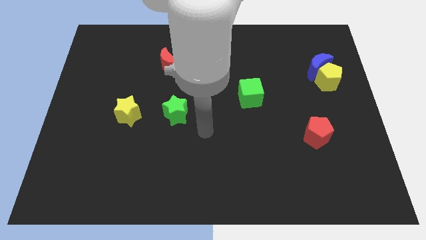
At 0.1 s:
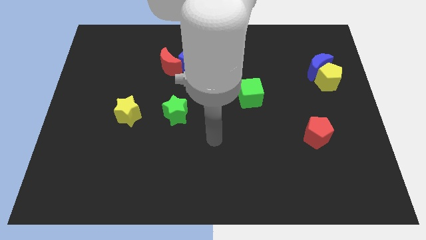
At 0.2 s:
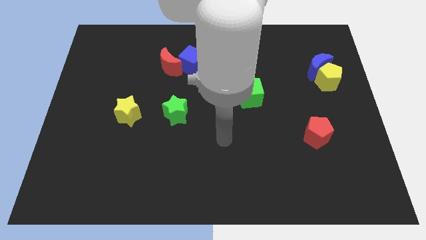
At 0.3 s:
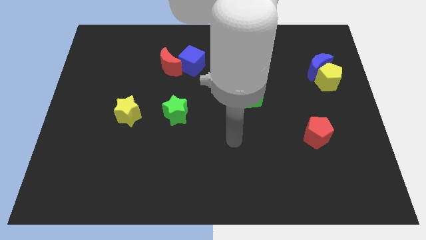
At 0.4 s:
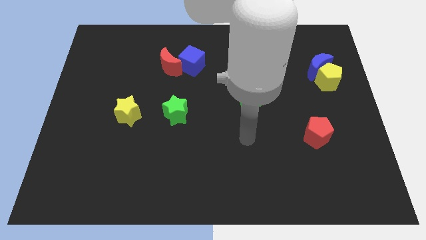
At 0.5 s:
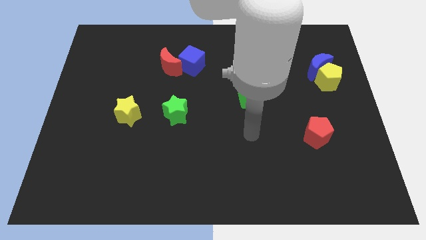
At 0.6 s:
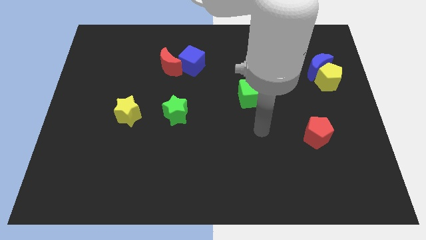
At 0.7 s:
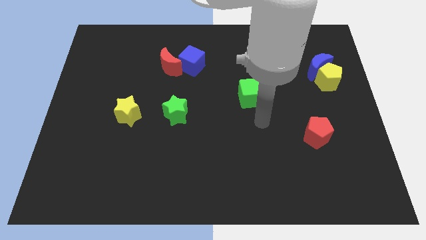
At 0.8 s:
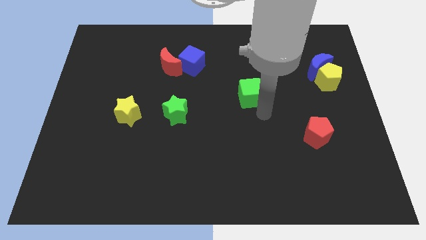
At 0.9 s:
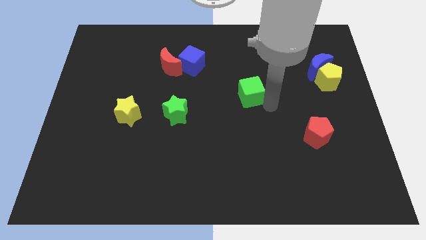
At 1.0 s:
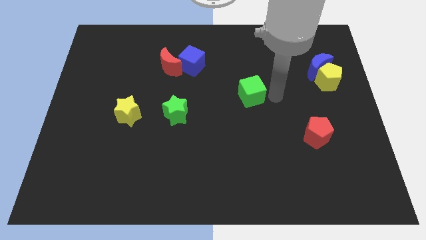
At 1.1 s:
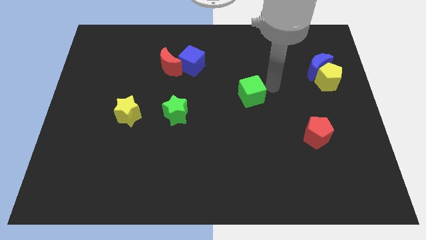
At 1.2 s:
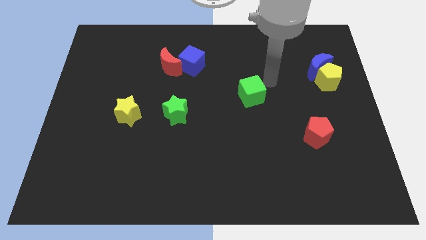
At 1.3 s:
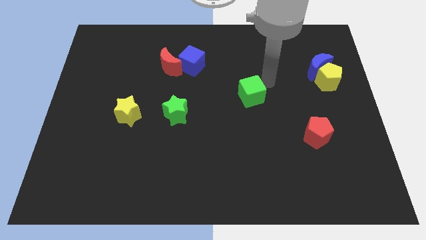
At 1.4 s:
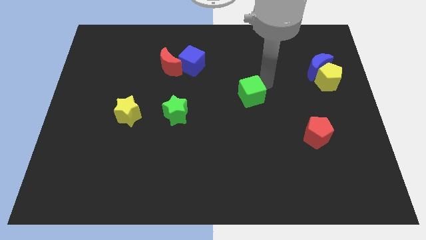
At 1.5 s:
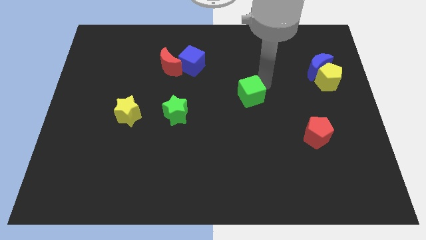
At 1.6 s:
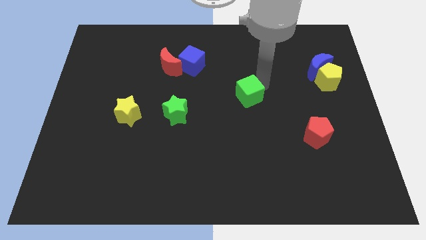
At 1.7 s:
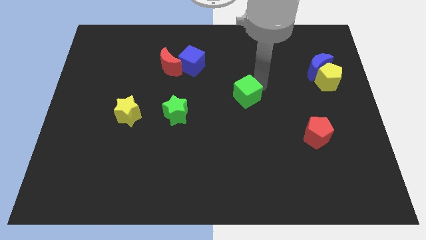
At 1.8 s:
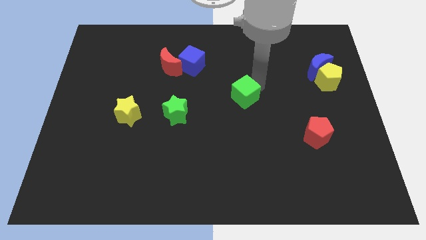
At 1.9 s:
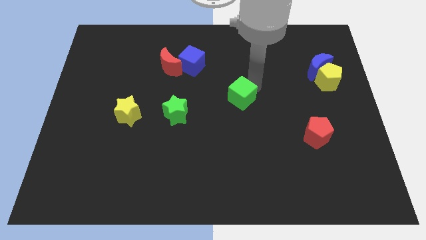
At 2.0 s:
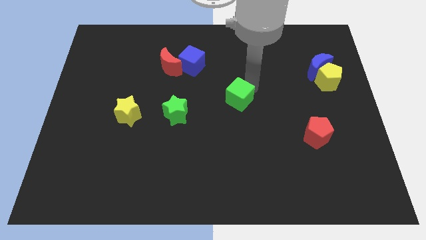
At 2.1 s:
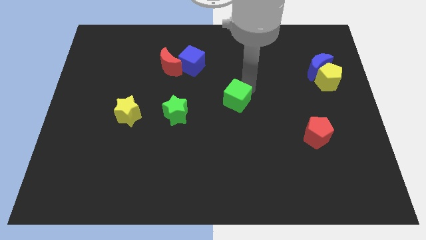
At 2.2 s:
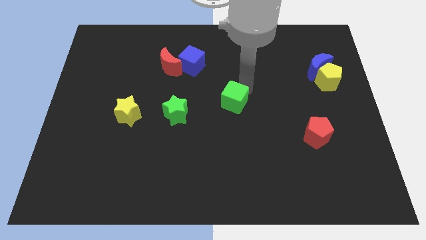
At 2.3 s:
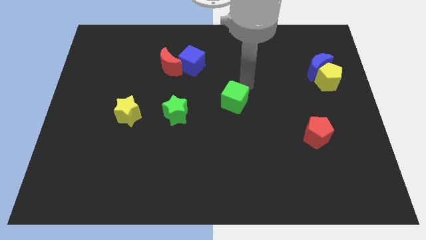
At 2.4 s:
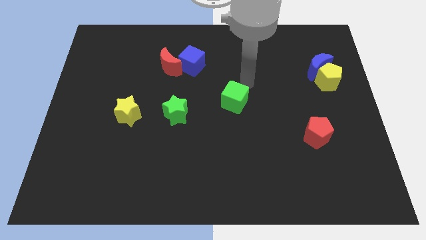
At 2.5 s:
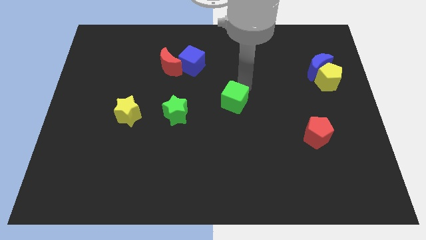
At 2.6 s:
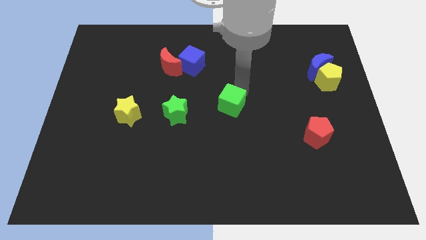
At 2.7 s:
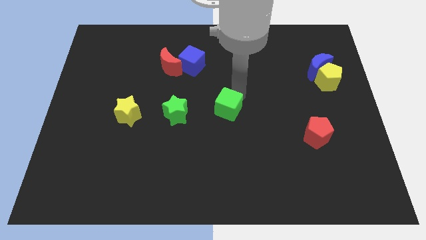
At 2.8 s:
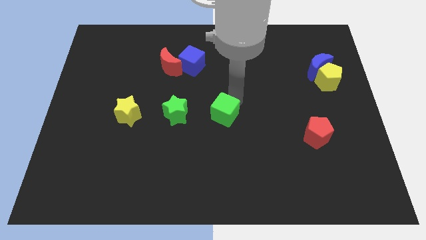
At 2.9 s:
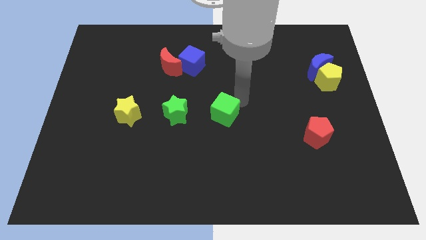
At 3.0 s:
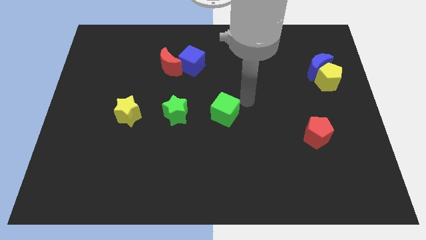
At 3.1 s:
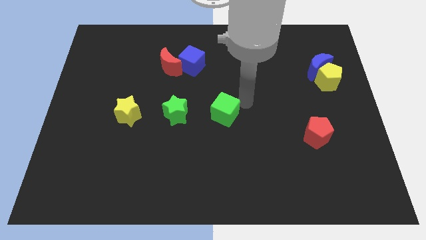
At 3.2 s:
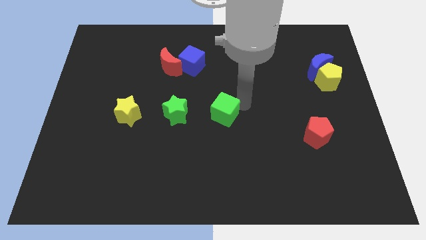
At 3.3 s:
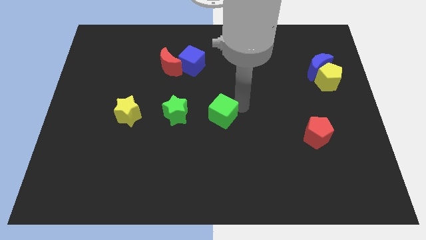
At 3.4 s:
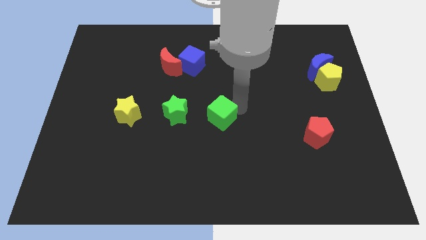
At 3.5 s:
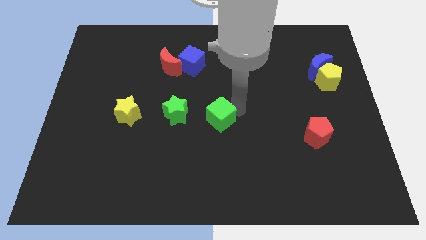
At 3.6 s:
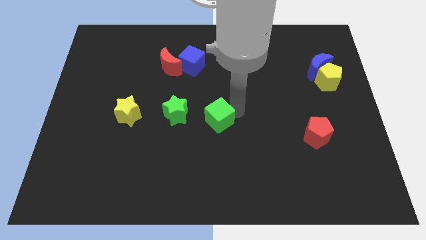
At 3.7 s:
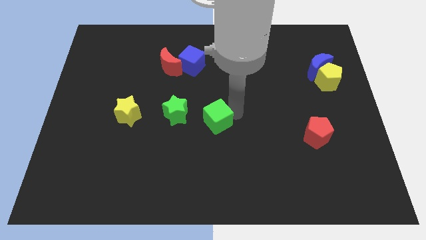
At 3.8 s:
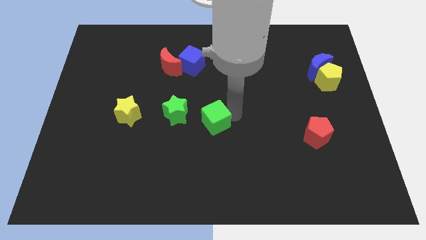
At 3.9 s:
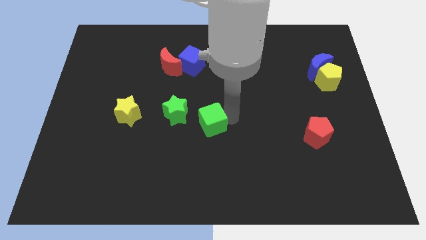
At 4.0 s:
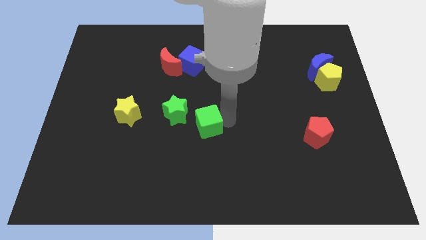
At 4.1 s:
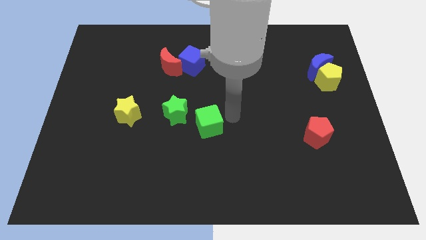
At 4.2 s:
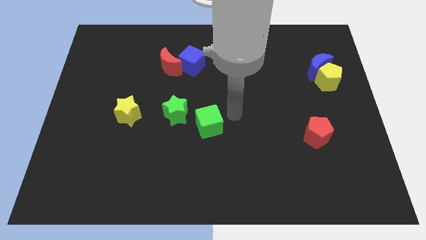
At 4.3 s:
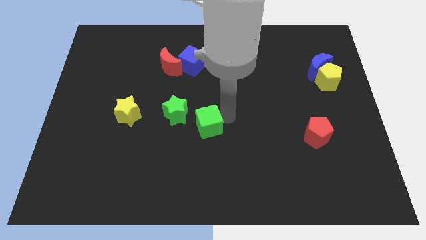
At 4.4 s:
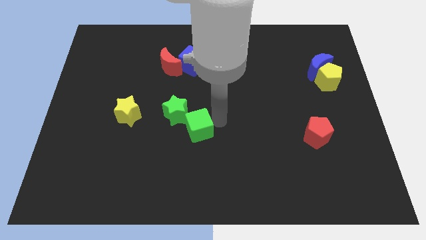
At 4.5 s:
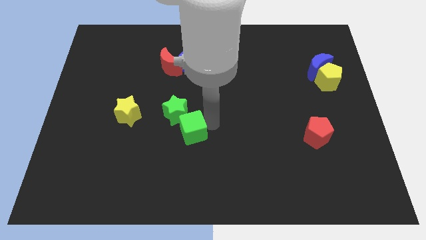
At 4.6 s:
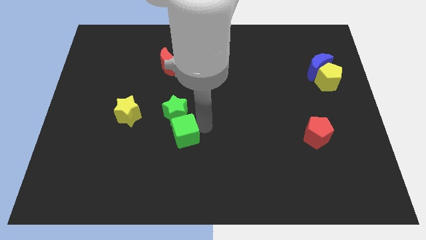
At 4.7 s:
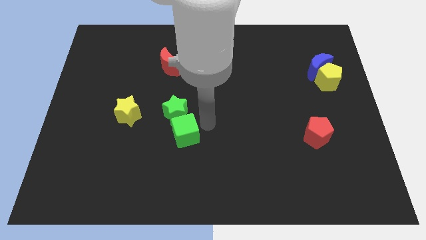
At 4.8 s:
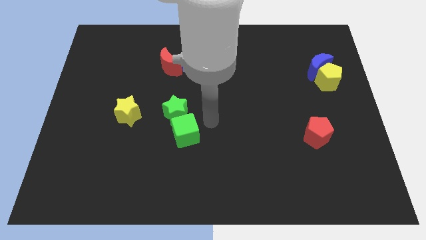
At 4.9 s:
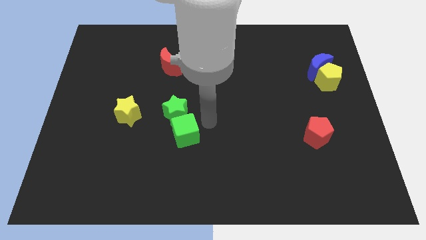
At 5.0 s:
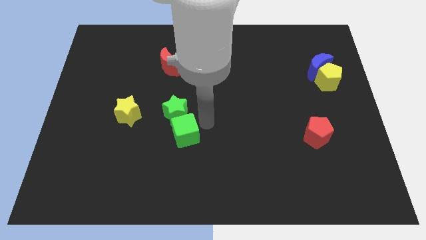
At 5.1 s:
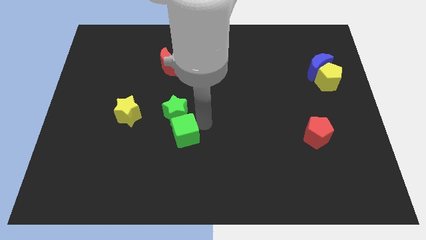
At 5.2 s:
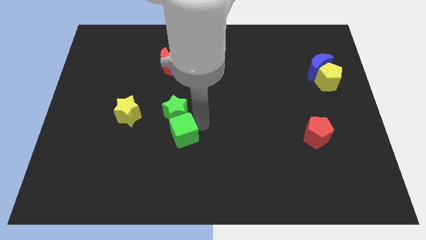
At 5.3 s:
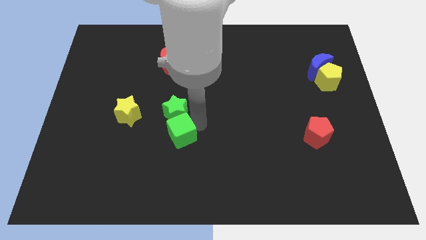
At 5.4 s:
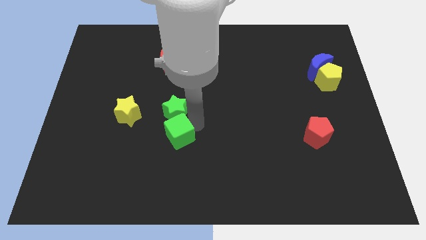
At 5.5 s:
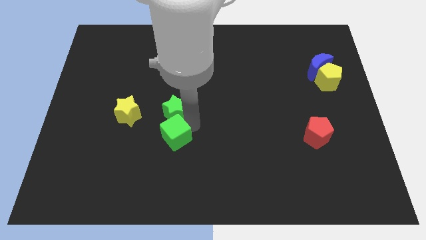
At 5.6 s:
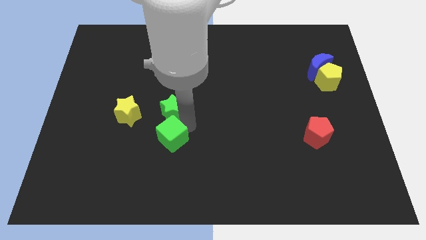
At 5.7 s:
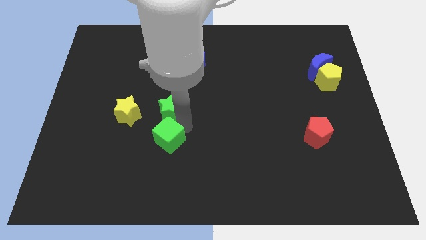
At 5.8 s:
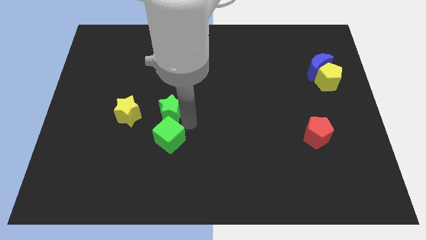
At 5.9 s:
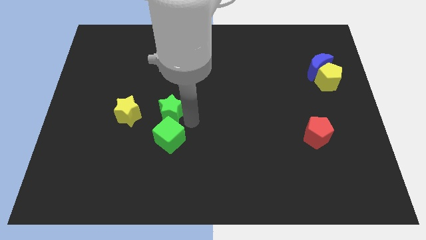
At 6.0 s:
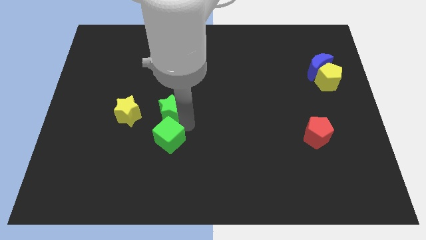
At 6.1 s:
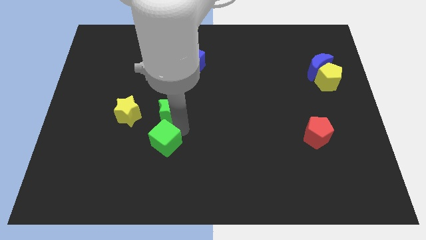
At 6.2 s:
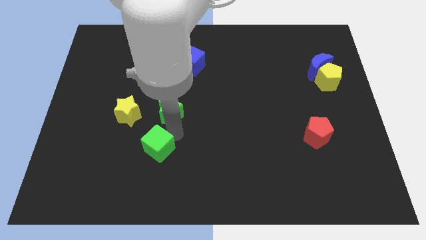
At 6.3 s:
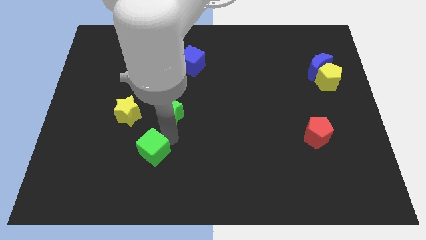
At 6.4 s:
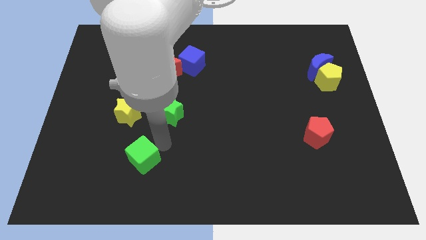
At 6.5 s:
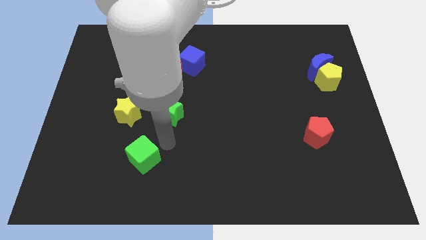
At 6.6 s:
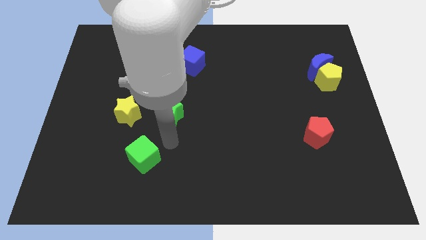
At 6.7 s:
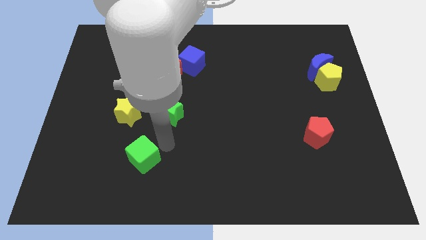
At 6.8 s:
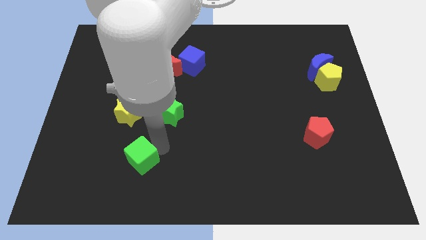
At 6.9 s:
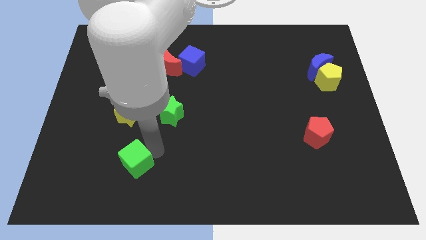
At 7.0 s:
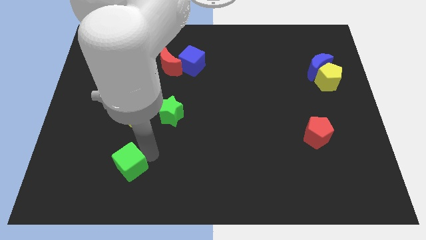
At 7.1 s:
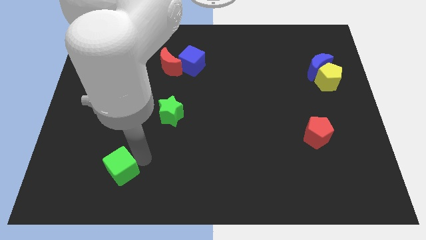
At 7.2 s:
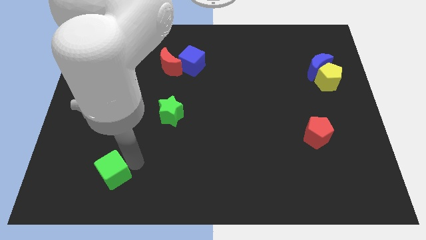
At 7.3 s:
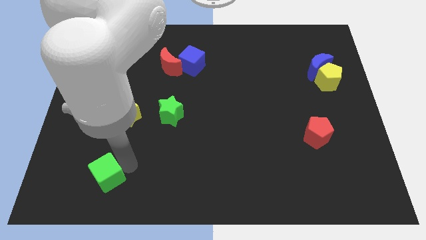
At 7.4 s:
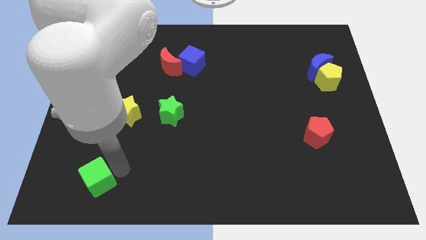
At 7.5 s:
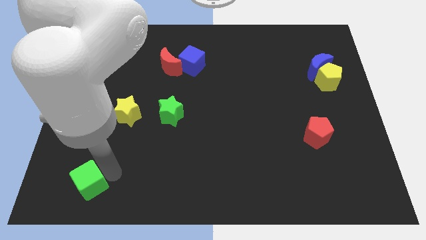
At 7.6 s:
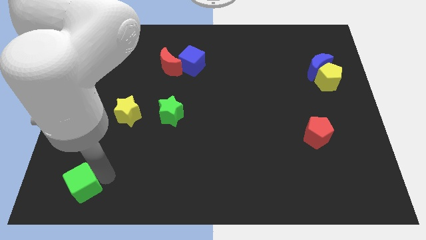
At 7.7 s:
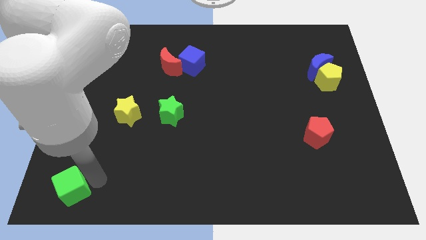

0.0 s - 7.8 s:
move the green cube to the bottom left of the board

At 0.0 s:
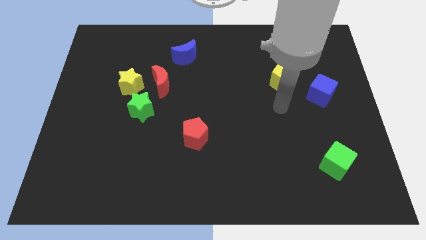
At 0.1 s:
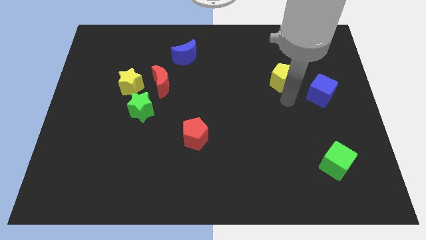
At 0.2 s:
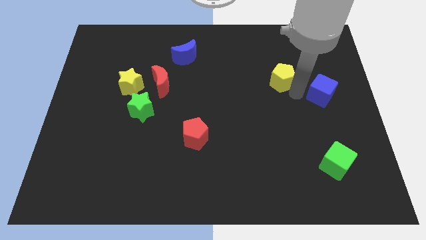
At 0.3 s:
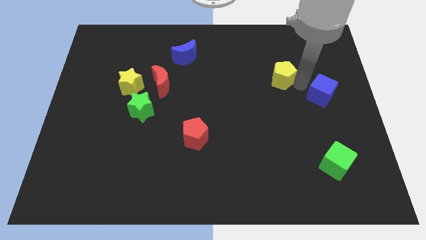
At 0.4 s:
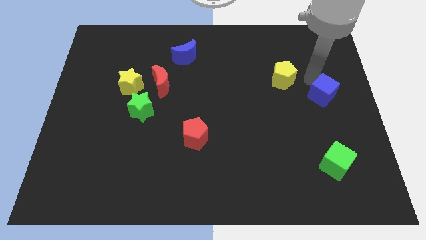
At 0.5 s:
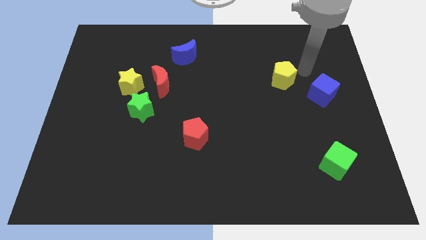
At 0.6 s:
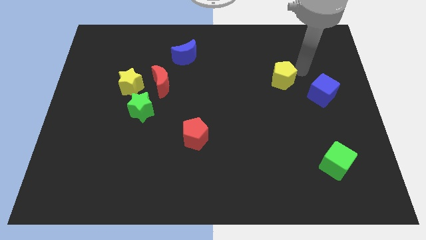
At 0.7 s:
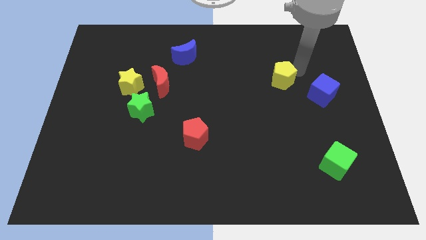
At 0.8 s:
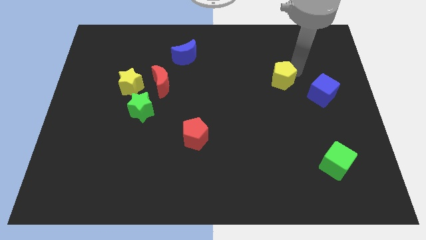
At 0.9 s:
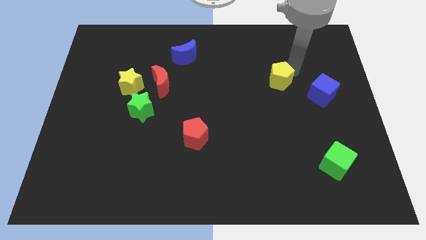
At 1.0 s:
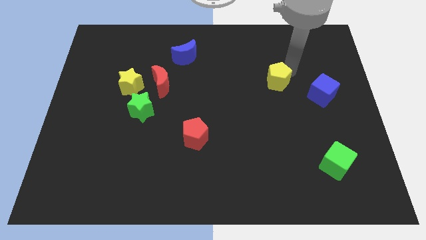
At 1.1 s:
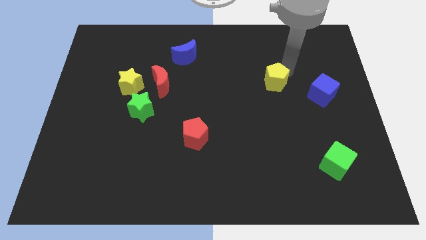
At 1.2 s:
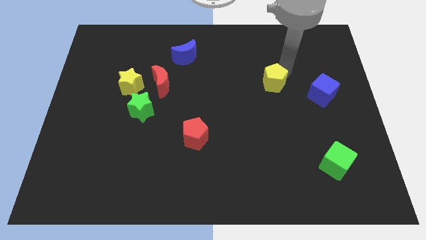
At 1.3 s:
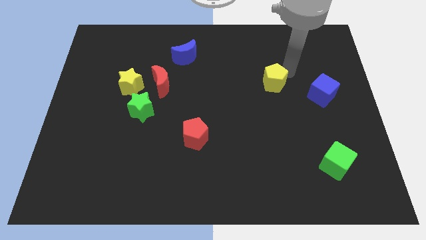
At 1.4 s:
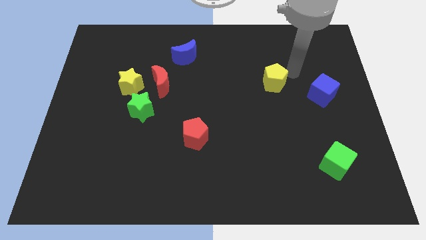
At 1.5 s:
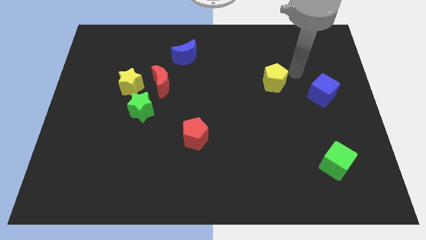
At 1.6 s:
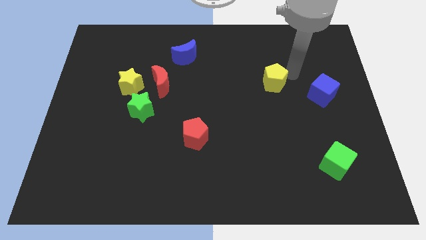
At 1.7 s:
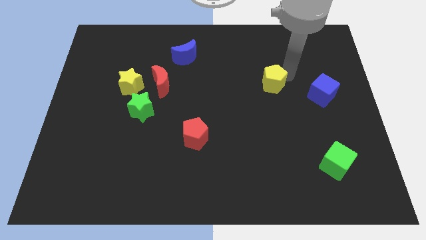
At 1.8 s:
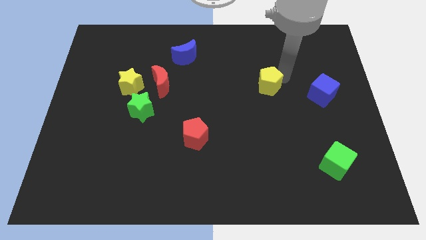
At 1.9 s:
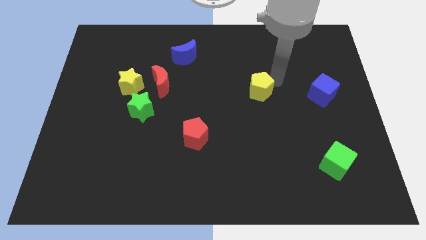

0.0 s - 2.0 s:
put the yellow pentagon to the middle
